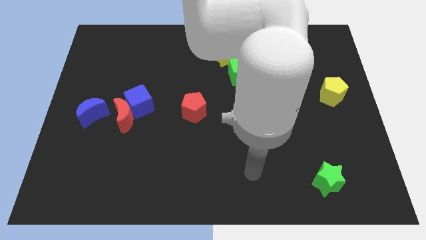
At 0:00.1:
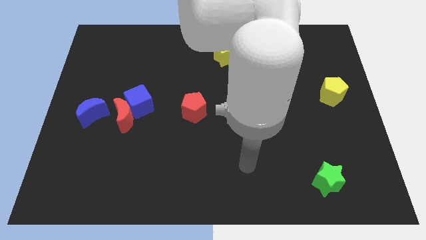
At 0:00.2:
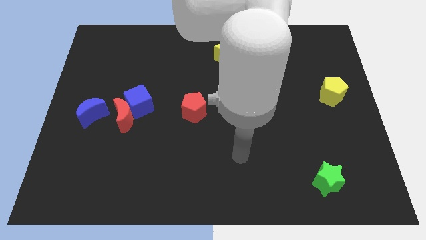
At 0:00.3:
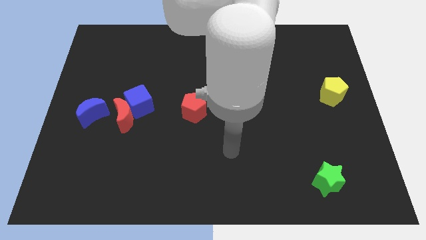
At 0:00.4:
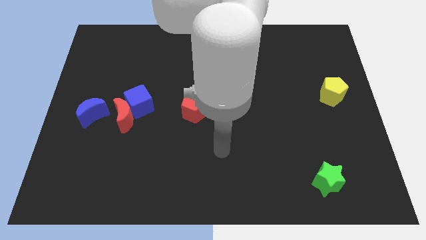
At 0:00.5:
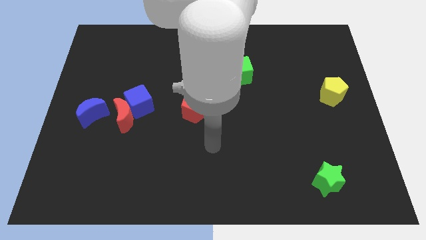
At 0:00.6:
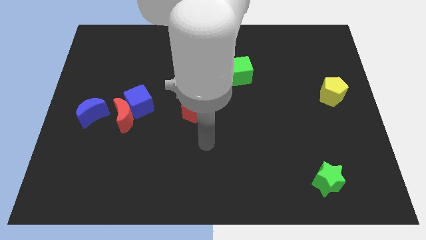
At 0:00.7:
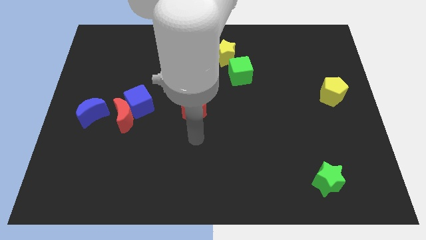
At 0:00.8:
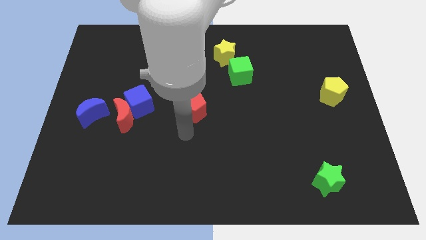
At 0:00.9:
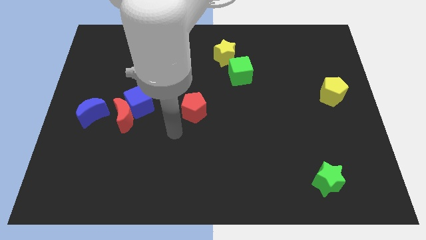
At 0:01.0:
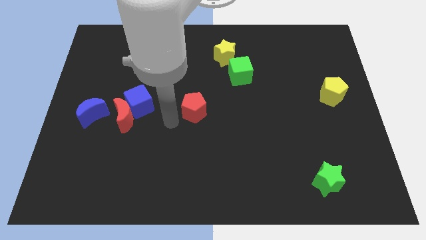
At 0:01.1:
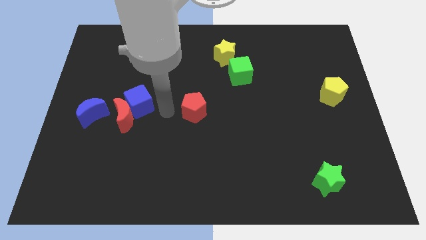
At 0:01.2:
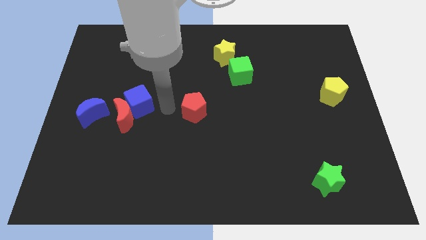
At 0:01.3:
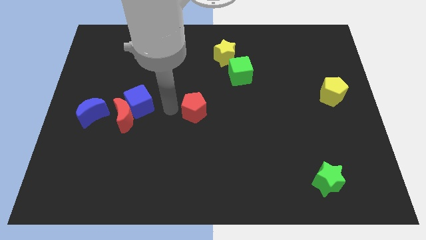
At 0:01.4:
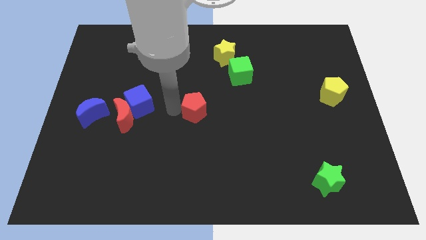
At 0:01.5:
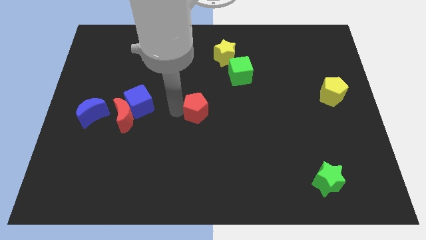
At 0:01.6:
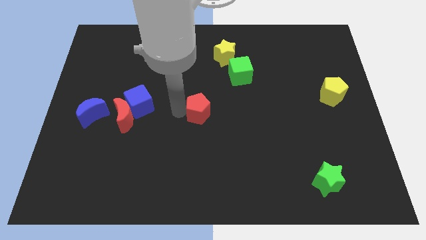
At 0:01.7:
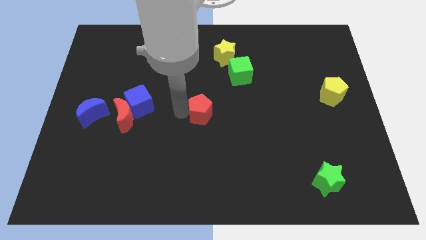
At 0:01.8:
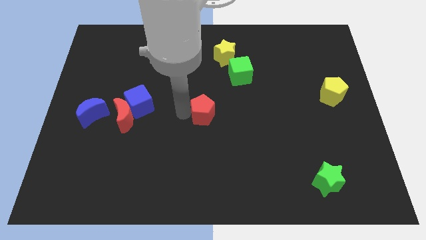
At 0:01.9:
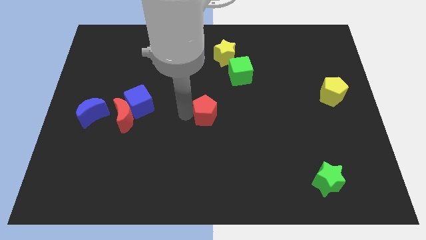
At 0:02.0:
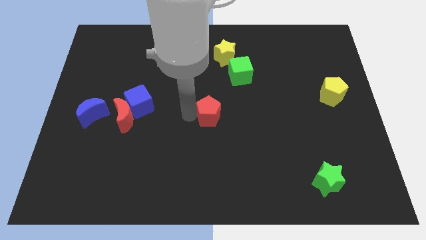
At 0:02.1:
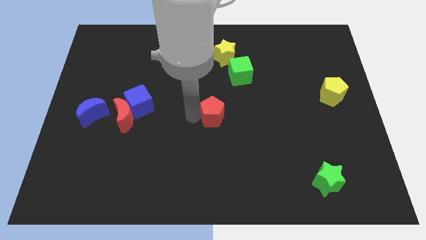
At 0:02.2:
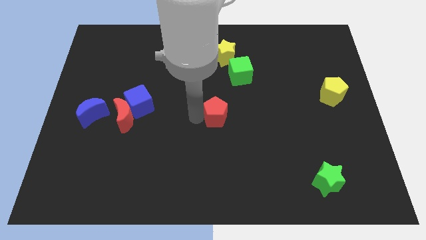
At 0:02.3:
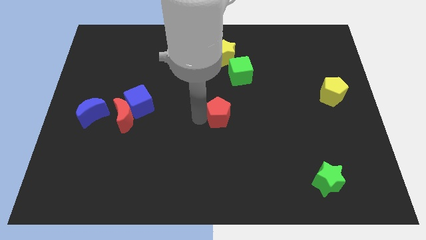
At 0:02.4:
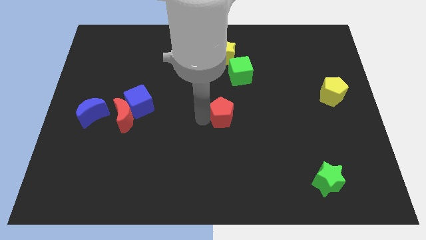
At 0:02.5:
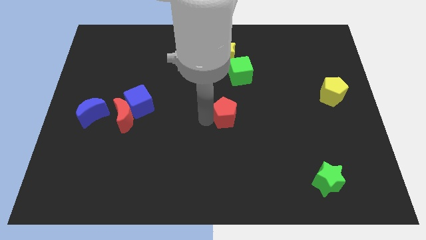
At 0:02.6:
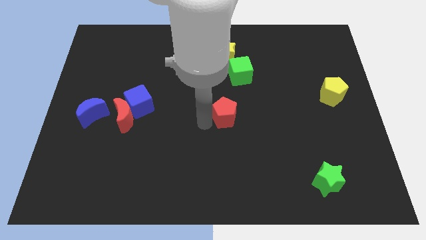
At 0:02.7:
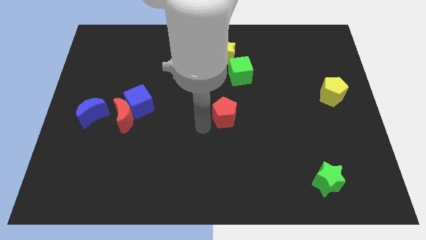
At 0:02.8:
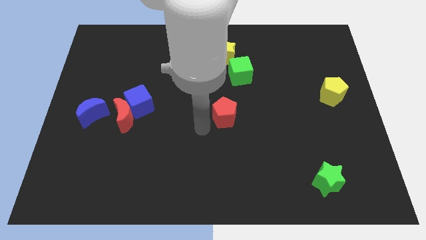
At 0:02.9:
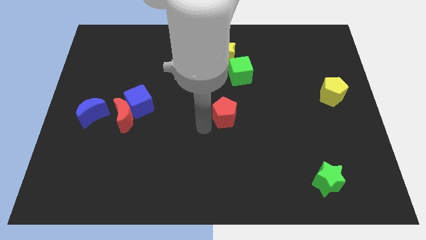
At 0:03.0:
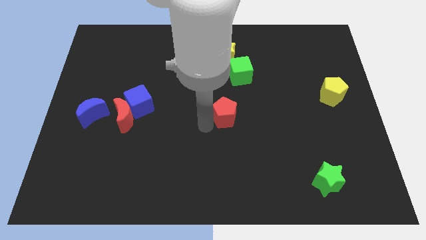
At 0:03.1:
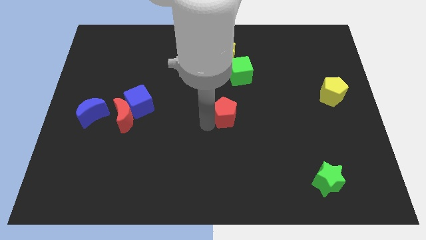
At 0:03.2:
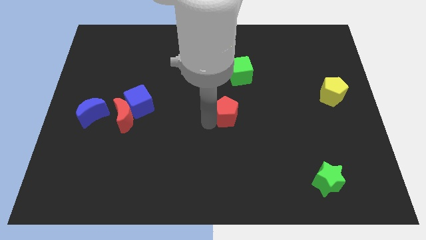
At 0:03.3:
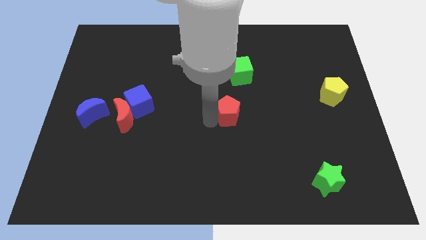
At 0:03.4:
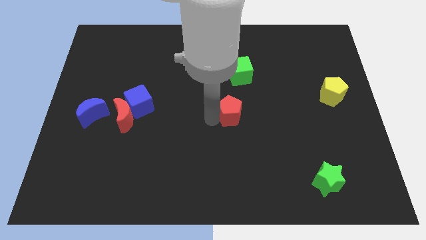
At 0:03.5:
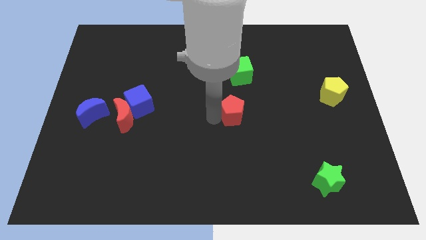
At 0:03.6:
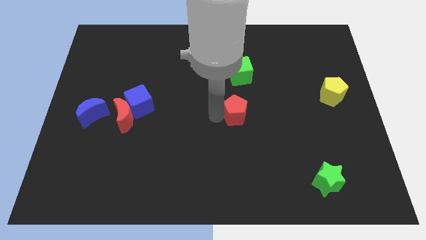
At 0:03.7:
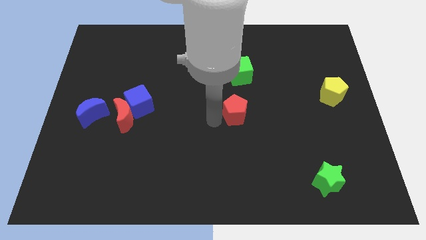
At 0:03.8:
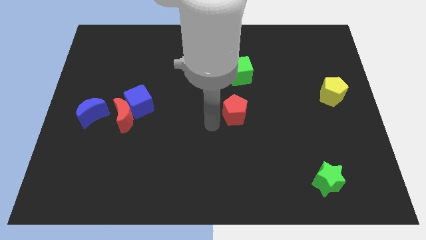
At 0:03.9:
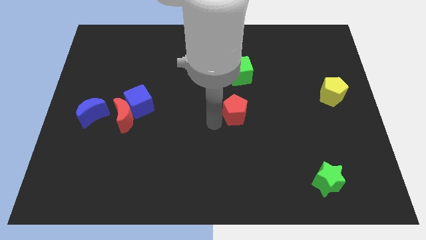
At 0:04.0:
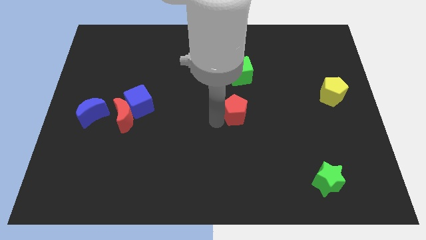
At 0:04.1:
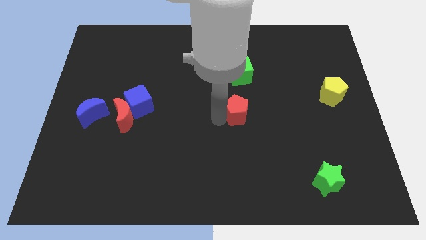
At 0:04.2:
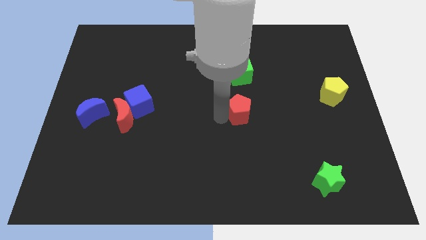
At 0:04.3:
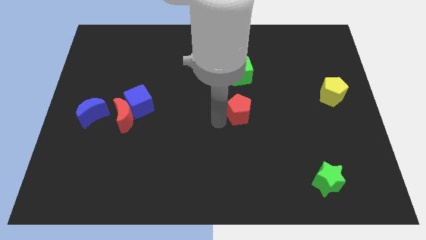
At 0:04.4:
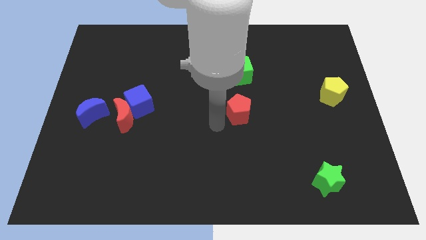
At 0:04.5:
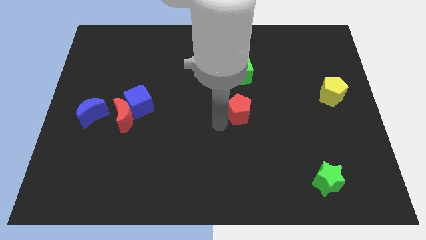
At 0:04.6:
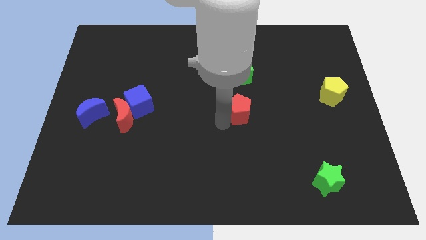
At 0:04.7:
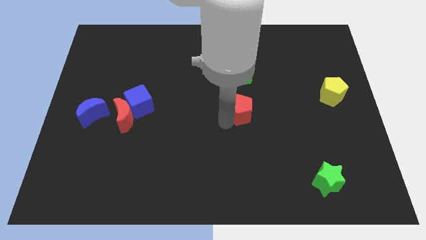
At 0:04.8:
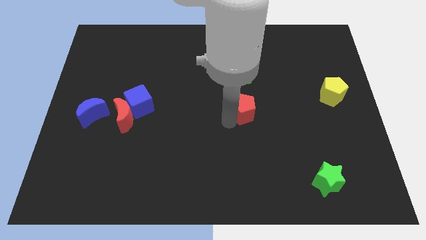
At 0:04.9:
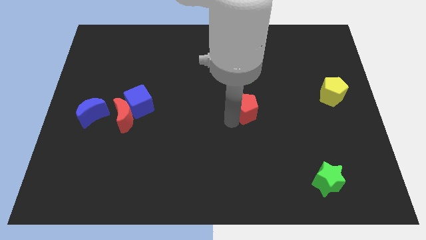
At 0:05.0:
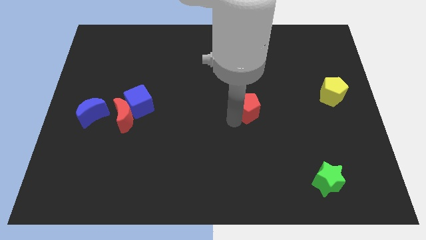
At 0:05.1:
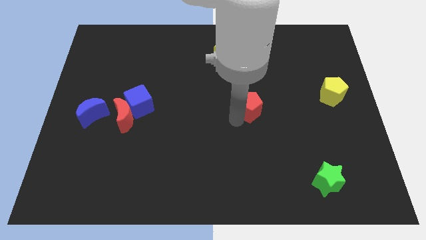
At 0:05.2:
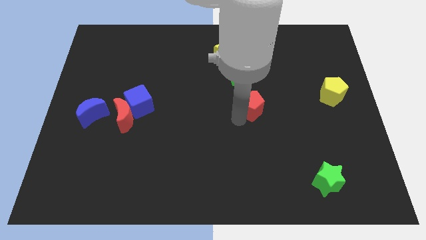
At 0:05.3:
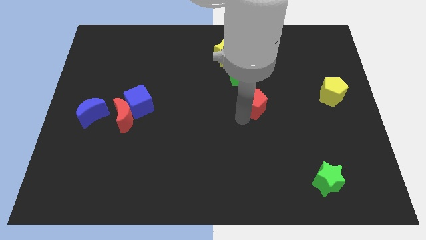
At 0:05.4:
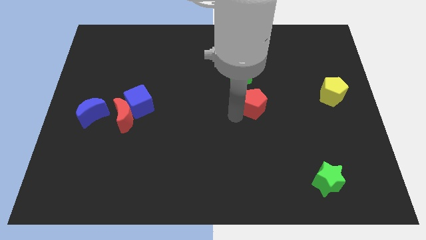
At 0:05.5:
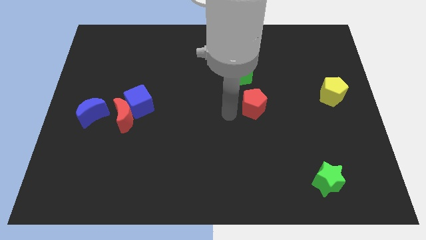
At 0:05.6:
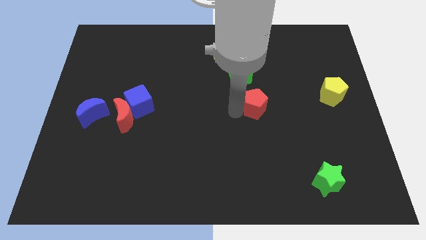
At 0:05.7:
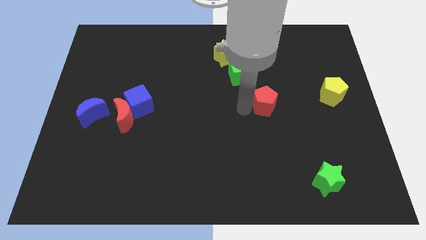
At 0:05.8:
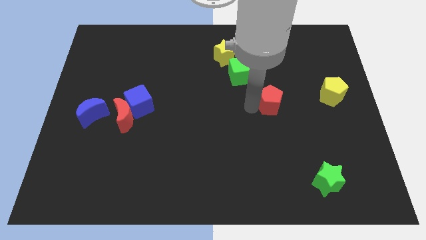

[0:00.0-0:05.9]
push the red pentagon to the left of the yellow pentagon

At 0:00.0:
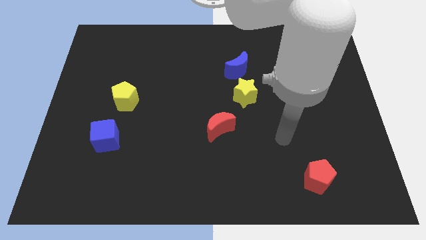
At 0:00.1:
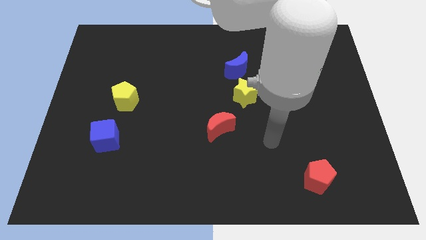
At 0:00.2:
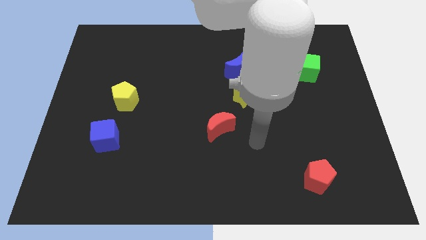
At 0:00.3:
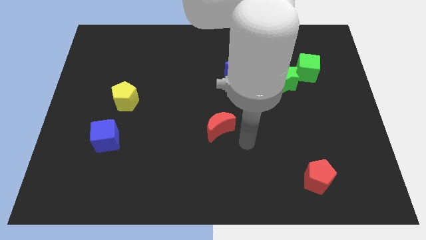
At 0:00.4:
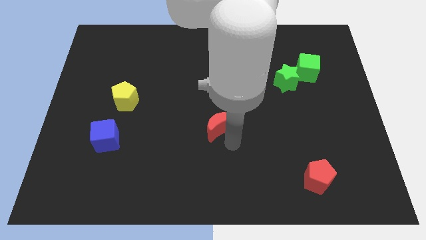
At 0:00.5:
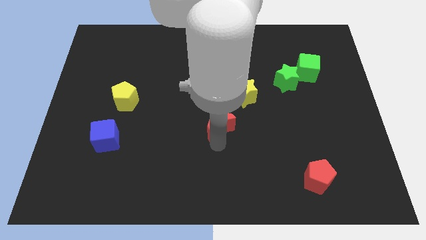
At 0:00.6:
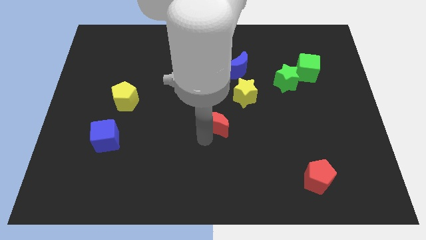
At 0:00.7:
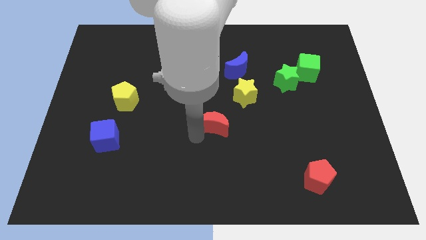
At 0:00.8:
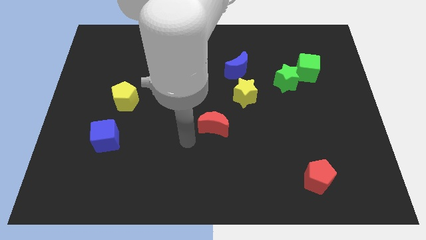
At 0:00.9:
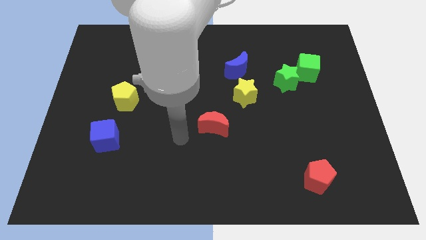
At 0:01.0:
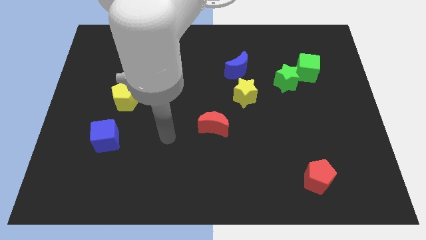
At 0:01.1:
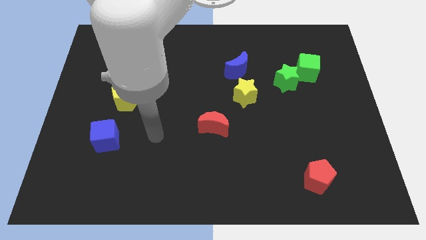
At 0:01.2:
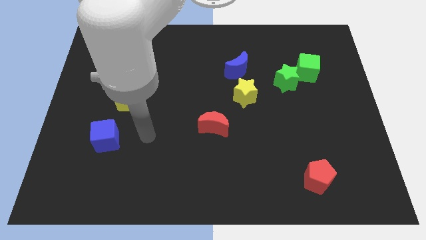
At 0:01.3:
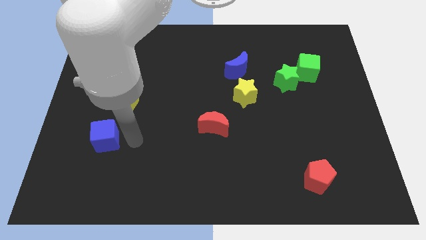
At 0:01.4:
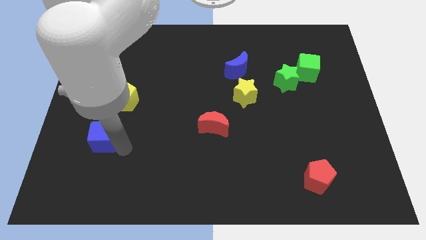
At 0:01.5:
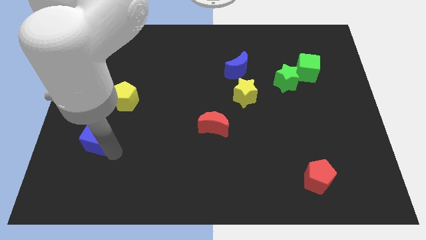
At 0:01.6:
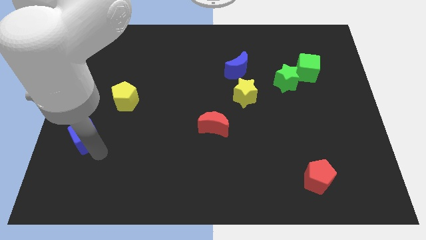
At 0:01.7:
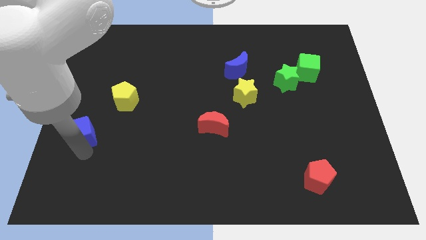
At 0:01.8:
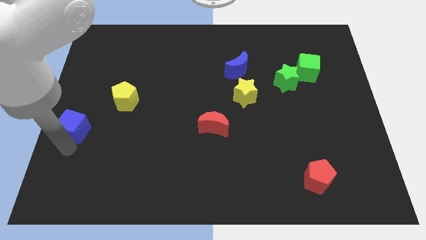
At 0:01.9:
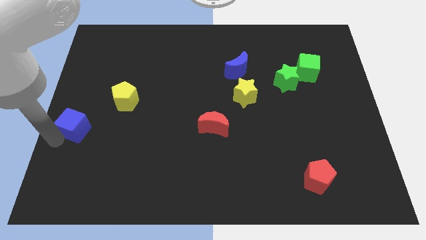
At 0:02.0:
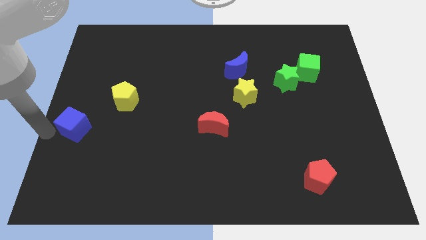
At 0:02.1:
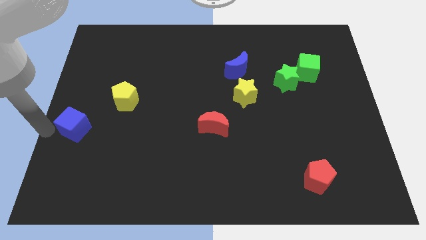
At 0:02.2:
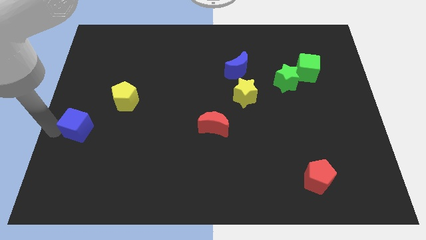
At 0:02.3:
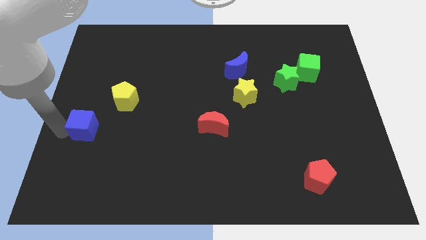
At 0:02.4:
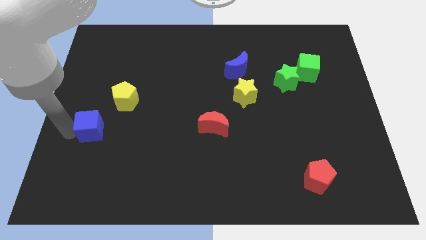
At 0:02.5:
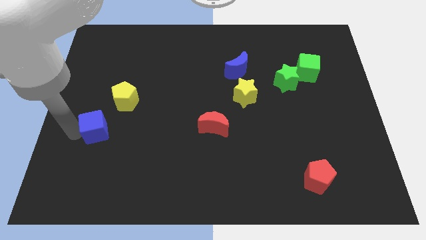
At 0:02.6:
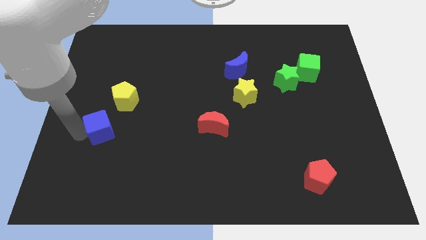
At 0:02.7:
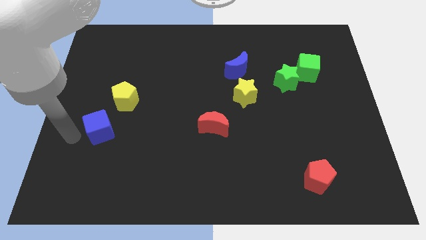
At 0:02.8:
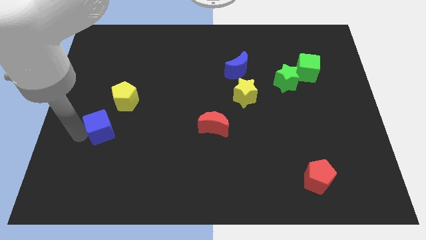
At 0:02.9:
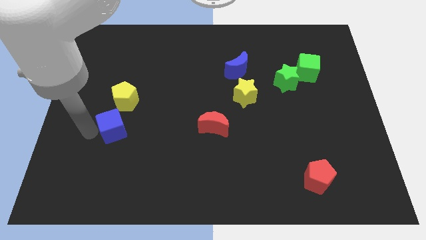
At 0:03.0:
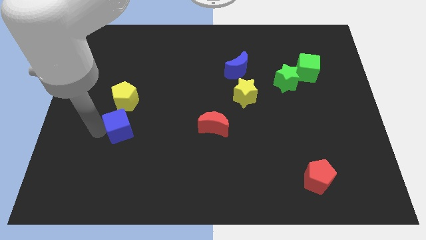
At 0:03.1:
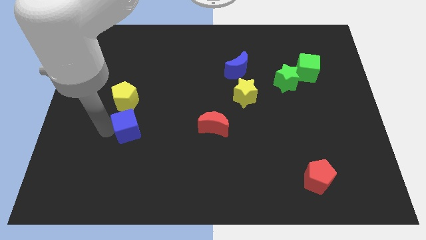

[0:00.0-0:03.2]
push the blue cube diagonally down and to the right of the yellow pentagon
